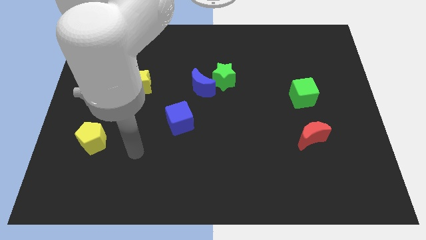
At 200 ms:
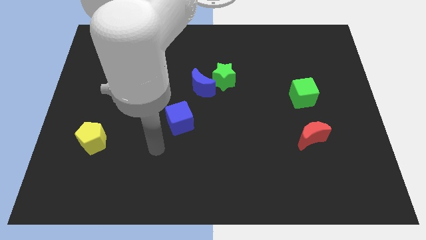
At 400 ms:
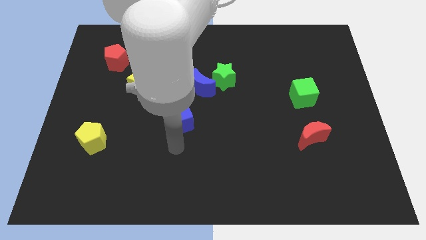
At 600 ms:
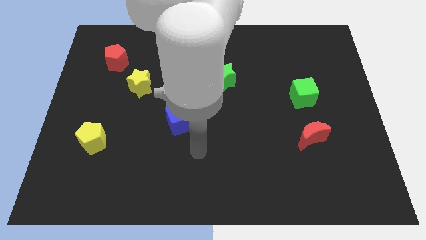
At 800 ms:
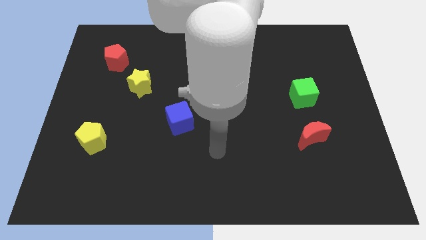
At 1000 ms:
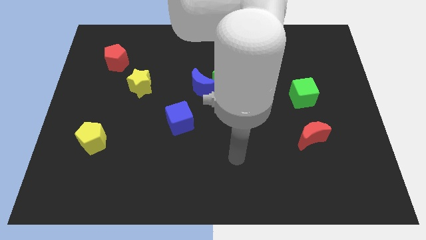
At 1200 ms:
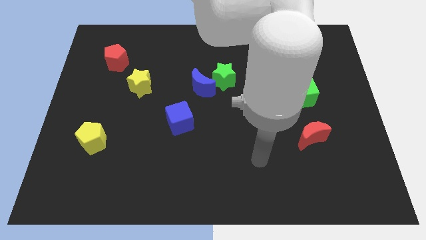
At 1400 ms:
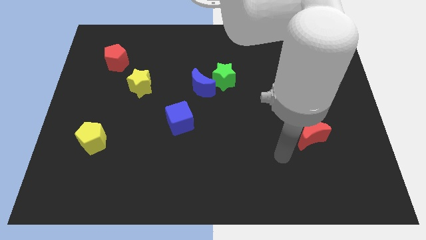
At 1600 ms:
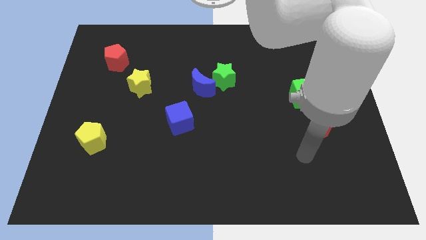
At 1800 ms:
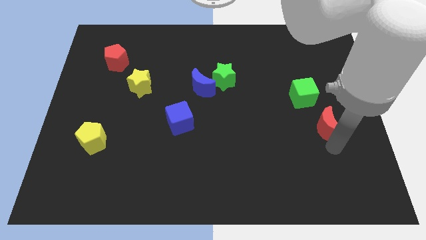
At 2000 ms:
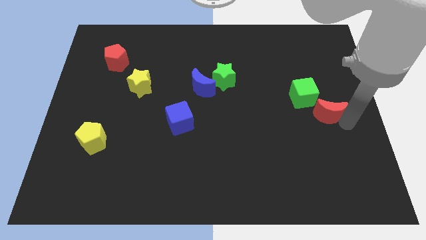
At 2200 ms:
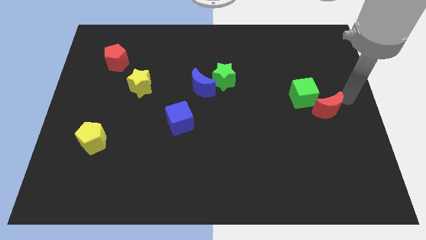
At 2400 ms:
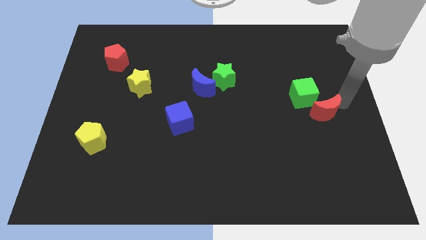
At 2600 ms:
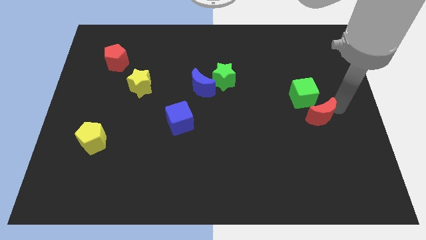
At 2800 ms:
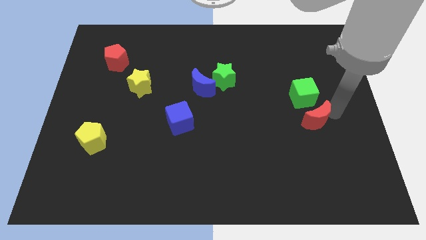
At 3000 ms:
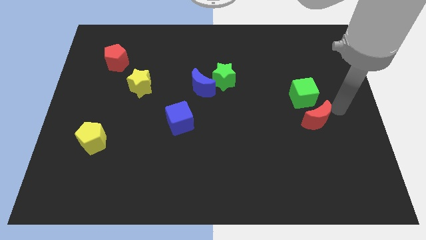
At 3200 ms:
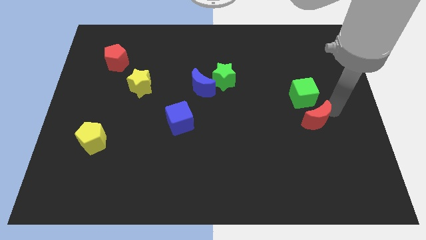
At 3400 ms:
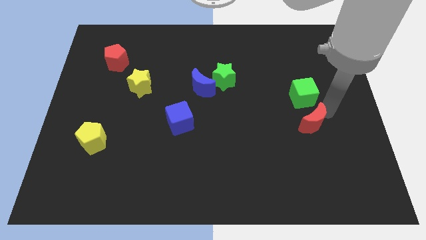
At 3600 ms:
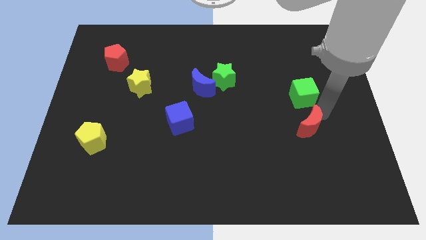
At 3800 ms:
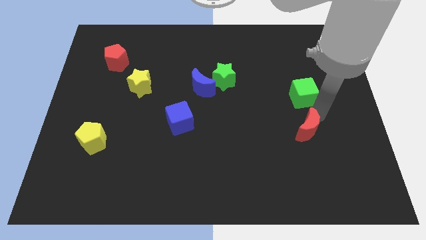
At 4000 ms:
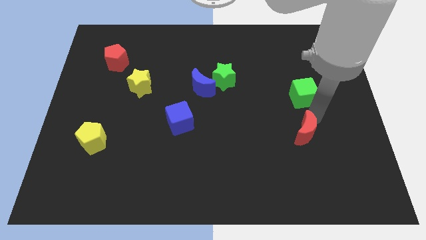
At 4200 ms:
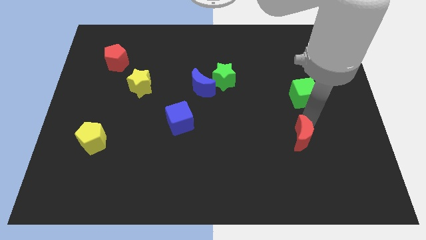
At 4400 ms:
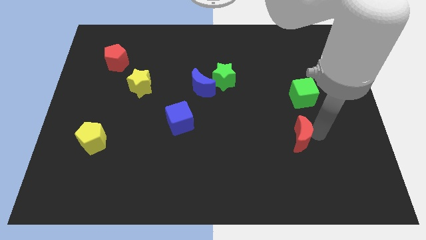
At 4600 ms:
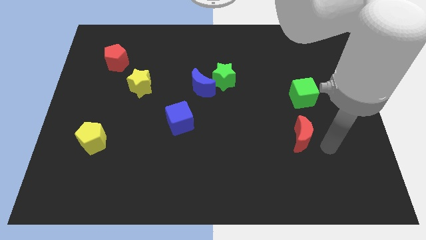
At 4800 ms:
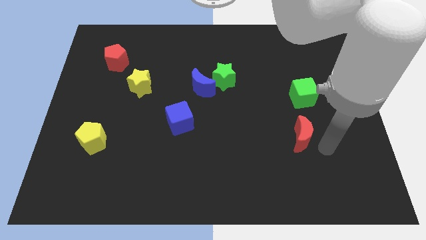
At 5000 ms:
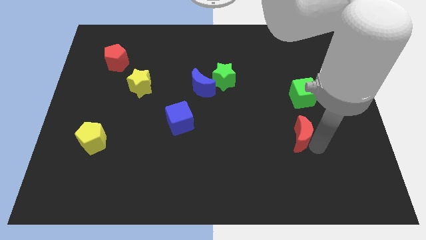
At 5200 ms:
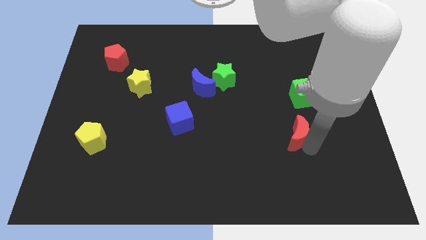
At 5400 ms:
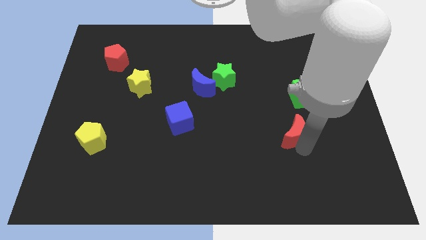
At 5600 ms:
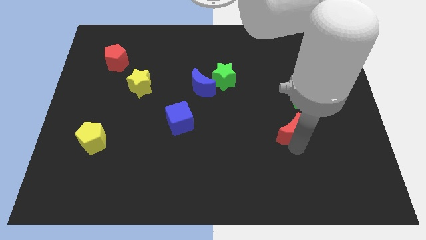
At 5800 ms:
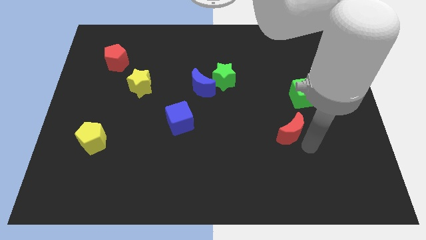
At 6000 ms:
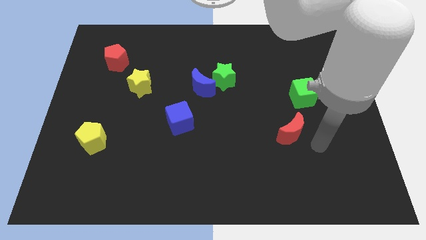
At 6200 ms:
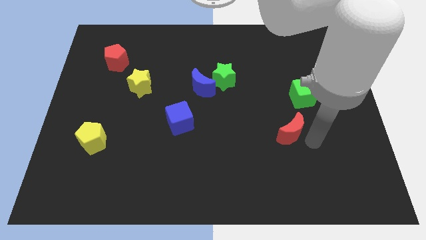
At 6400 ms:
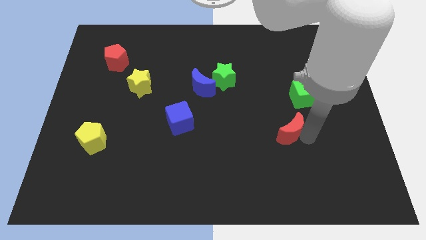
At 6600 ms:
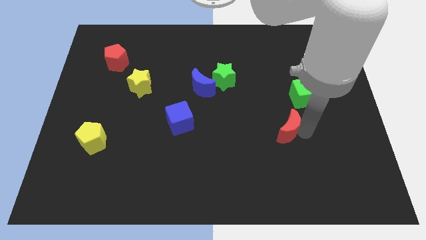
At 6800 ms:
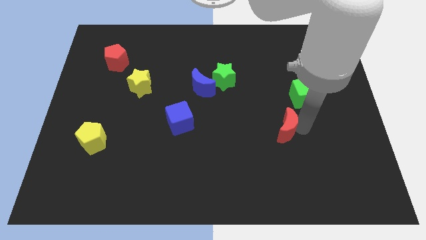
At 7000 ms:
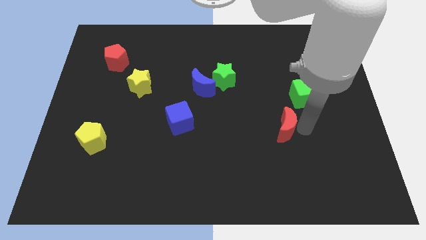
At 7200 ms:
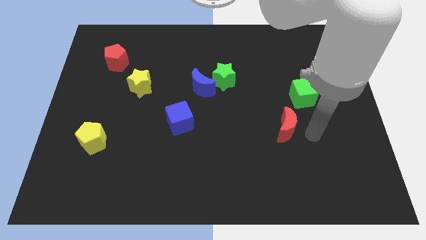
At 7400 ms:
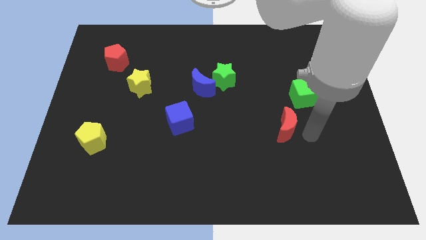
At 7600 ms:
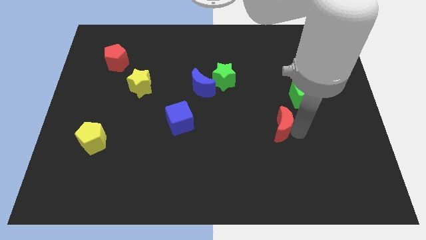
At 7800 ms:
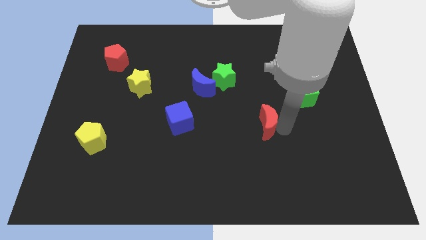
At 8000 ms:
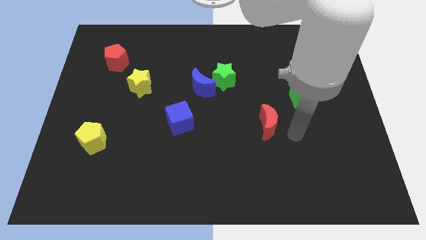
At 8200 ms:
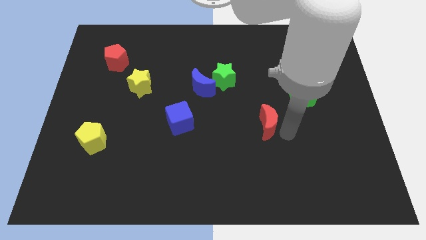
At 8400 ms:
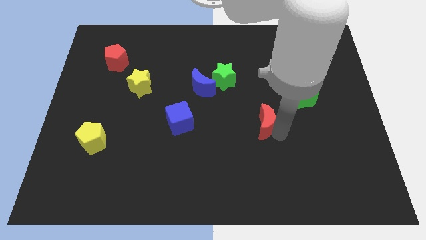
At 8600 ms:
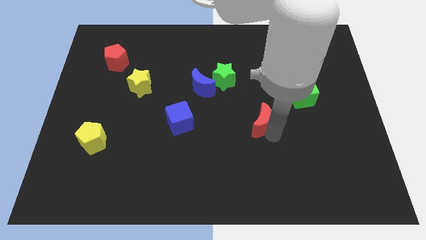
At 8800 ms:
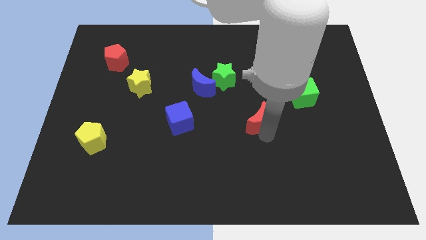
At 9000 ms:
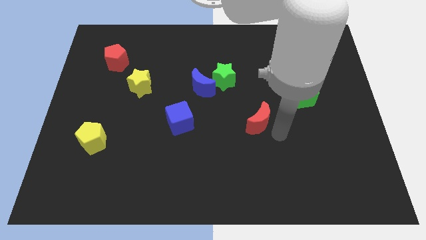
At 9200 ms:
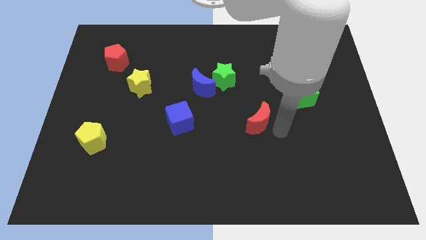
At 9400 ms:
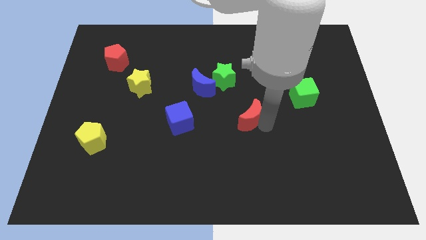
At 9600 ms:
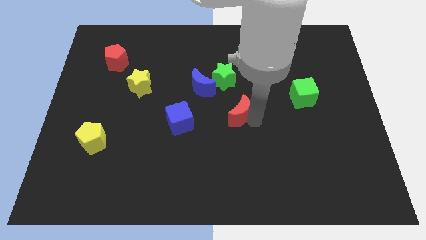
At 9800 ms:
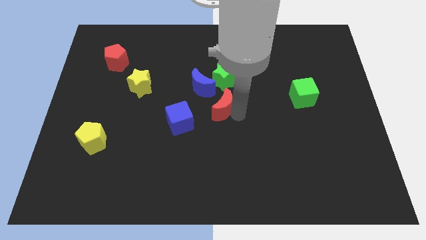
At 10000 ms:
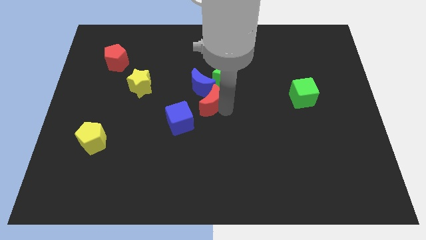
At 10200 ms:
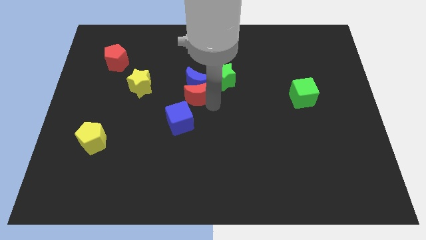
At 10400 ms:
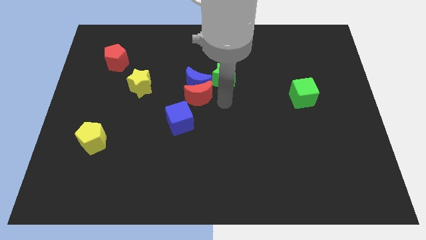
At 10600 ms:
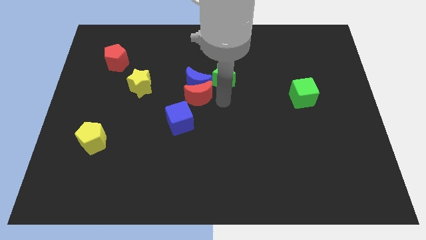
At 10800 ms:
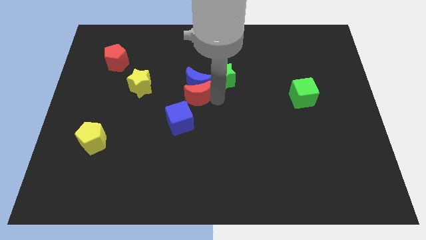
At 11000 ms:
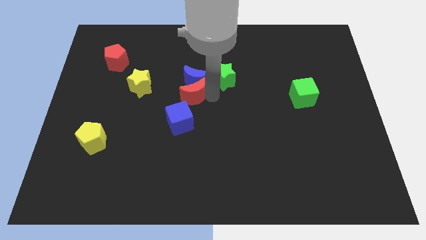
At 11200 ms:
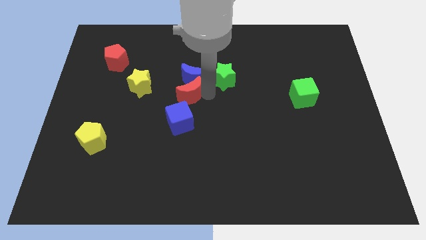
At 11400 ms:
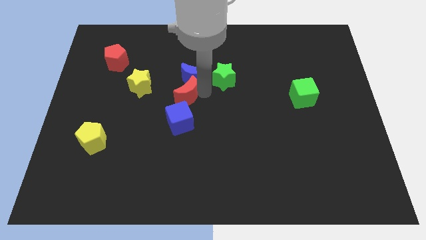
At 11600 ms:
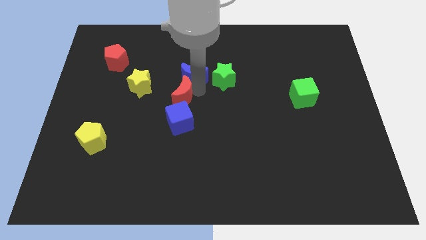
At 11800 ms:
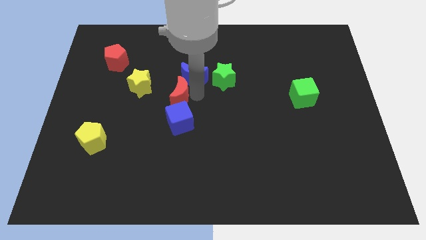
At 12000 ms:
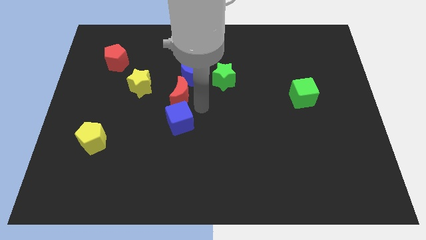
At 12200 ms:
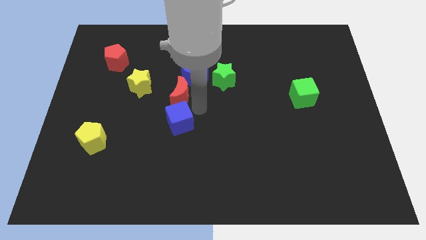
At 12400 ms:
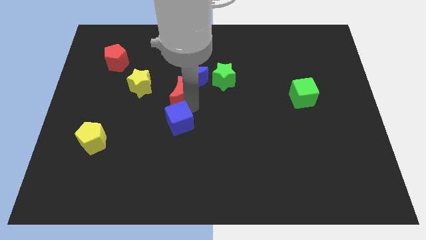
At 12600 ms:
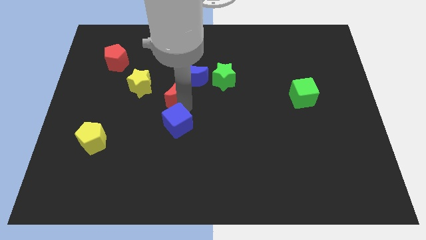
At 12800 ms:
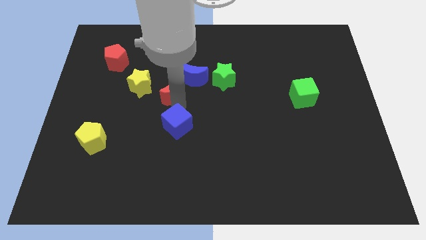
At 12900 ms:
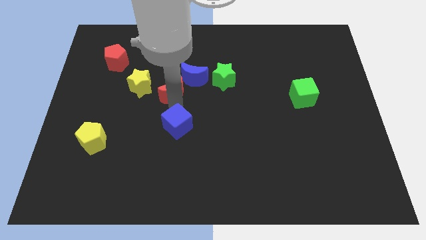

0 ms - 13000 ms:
put the red moon to the left of the blue moon
